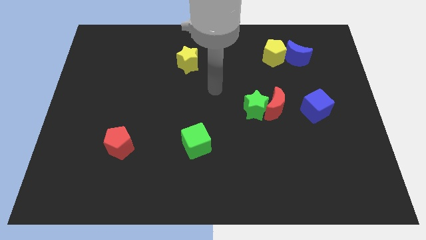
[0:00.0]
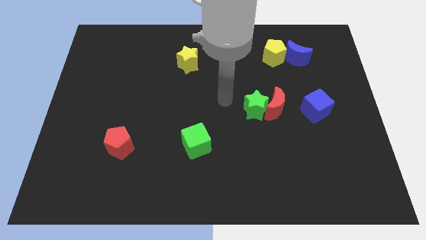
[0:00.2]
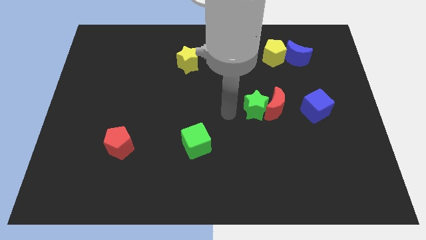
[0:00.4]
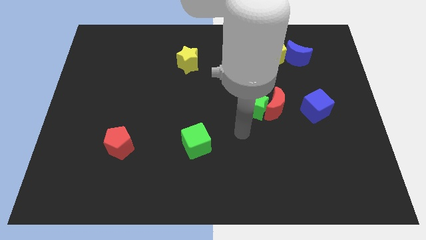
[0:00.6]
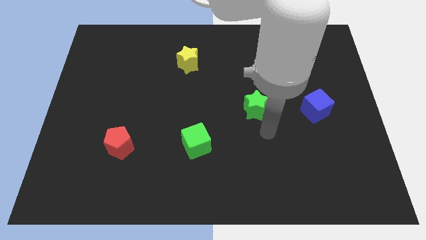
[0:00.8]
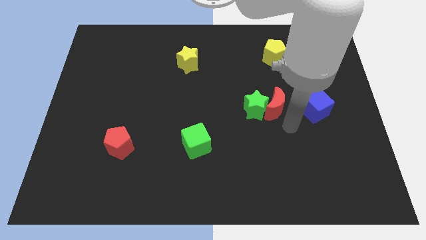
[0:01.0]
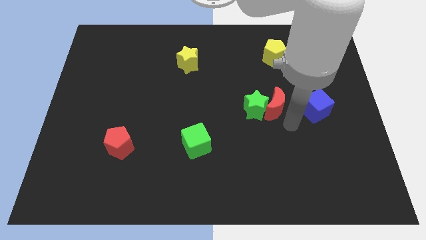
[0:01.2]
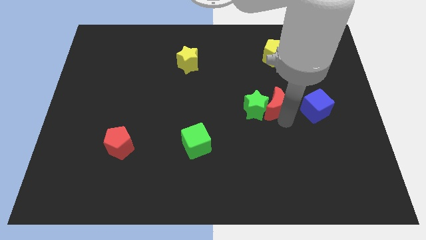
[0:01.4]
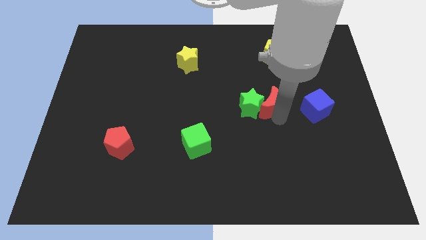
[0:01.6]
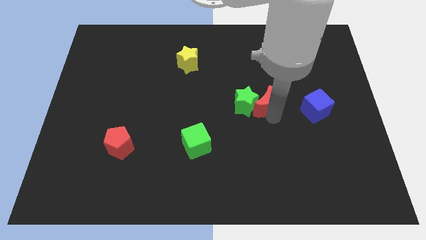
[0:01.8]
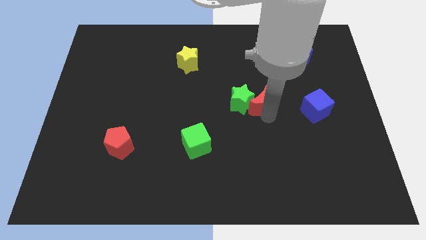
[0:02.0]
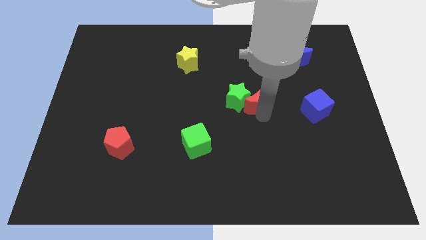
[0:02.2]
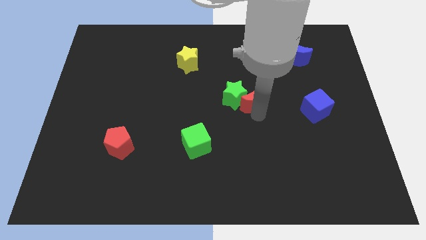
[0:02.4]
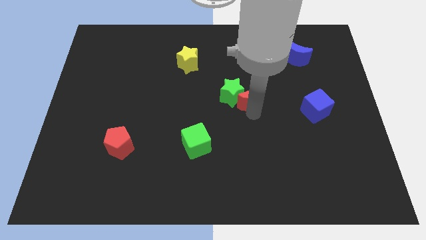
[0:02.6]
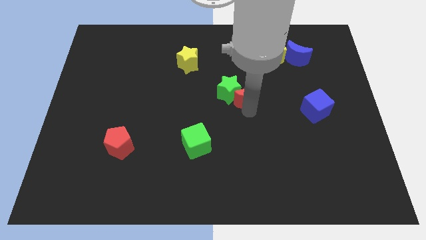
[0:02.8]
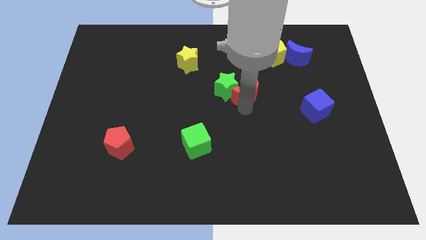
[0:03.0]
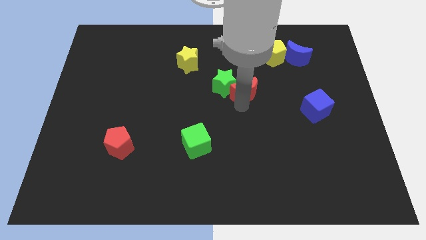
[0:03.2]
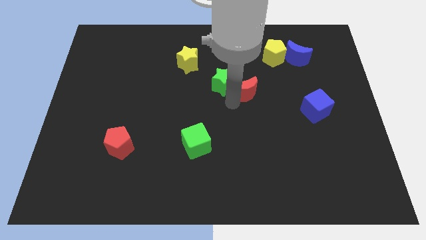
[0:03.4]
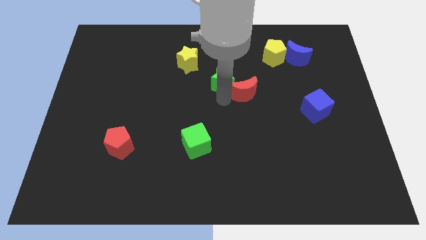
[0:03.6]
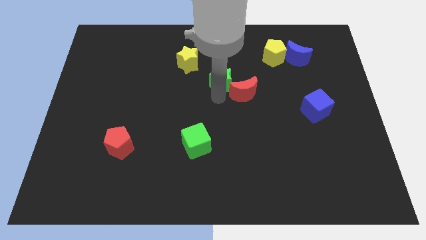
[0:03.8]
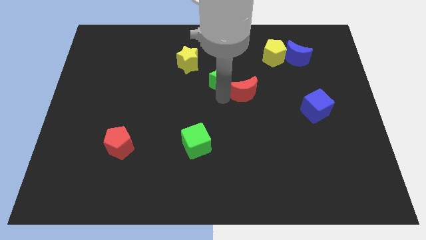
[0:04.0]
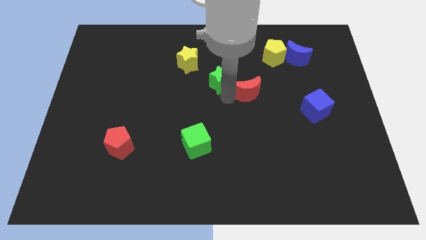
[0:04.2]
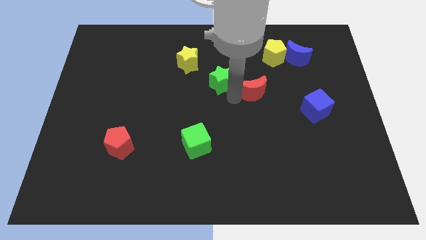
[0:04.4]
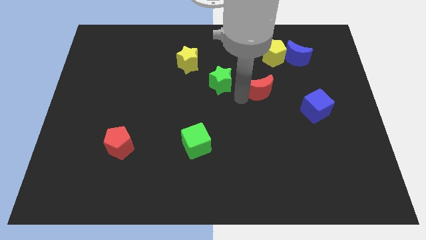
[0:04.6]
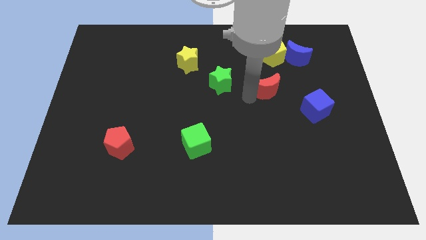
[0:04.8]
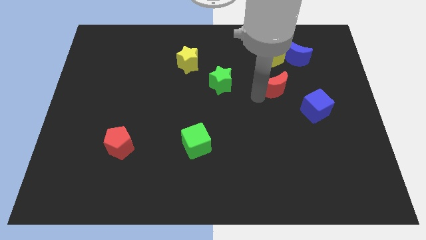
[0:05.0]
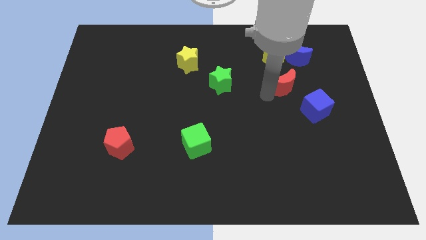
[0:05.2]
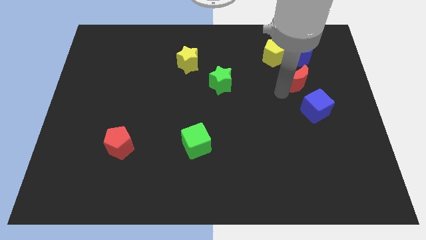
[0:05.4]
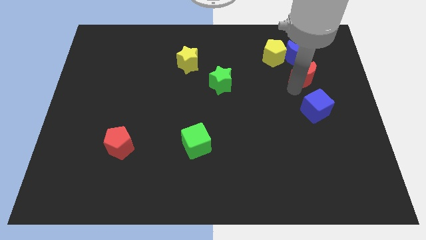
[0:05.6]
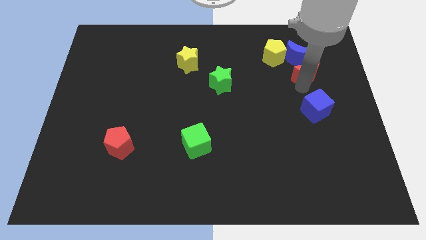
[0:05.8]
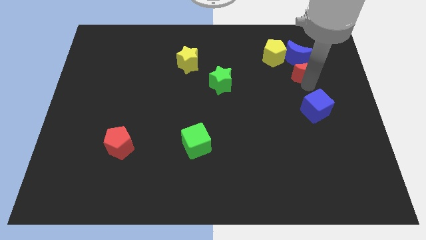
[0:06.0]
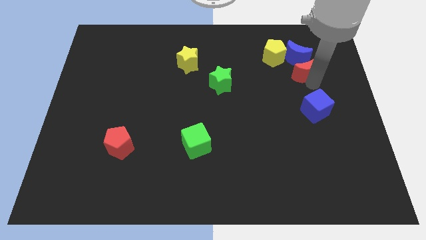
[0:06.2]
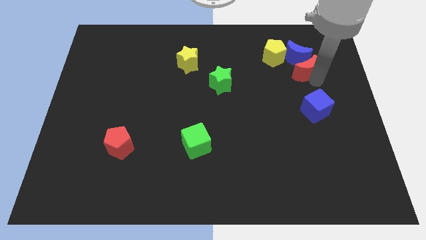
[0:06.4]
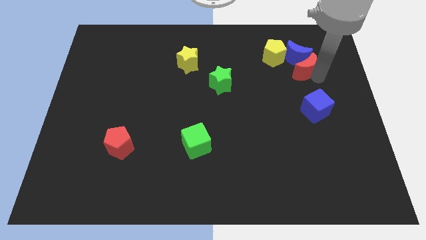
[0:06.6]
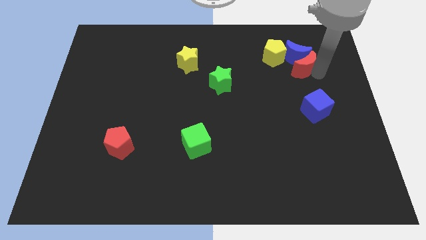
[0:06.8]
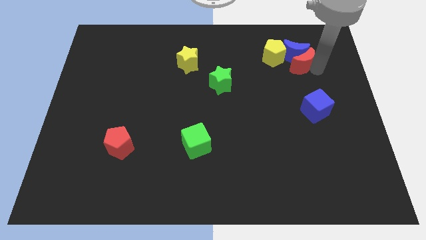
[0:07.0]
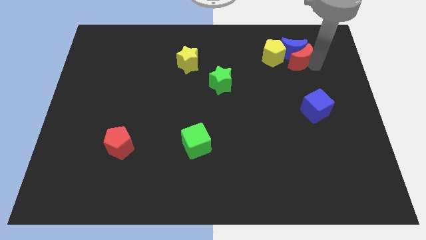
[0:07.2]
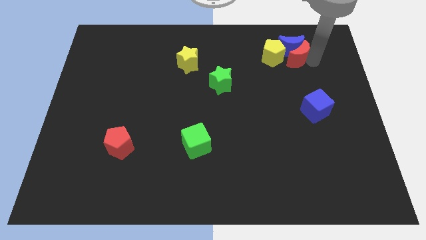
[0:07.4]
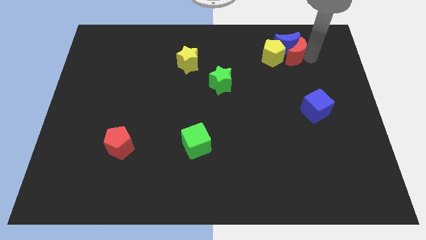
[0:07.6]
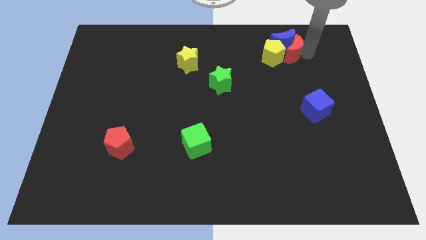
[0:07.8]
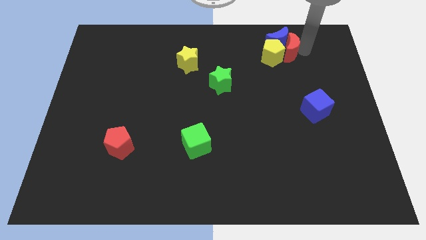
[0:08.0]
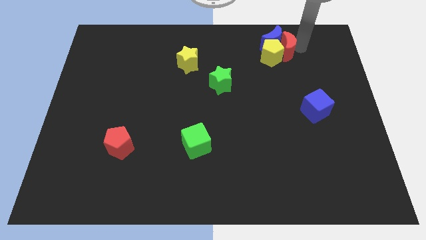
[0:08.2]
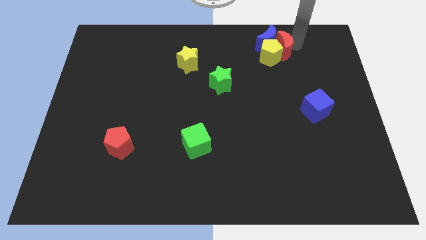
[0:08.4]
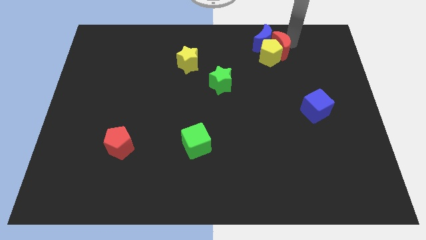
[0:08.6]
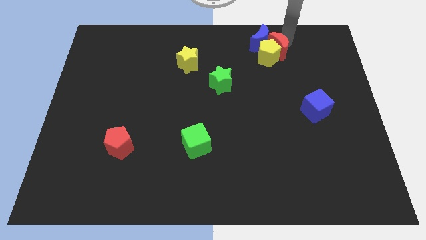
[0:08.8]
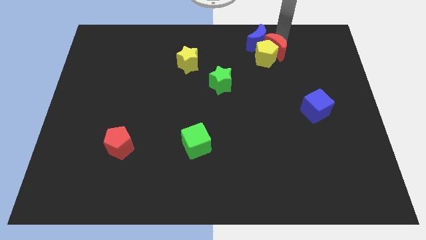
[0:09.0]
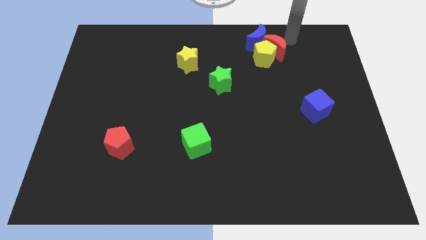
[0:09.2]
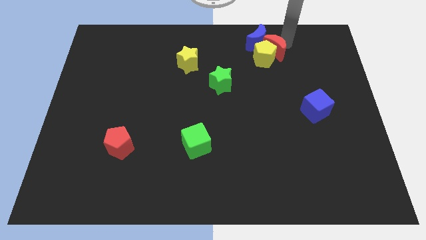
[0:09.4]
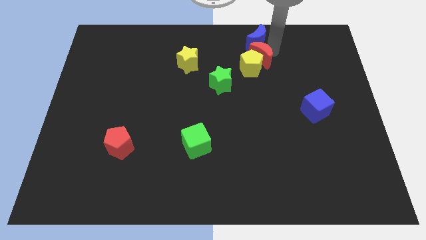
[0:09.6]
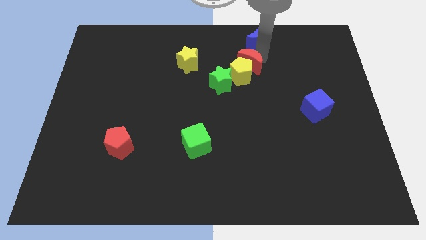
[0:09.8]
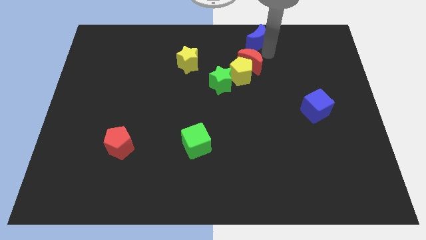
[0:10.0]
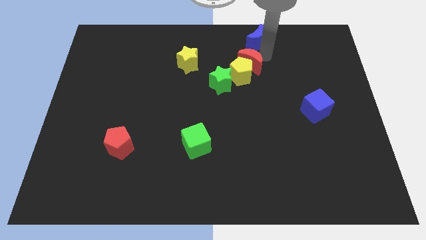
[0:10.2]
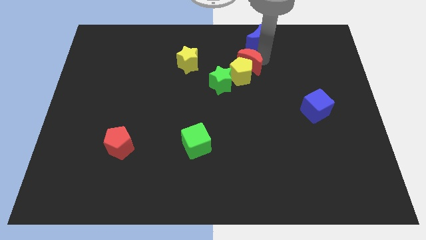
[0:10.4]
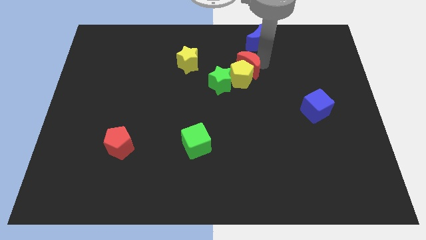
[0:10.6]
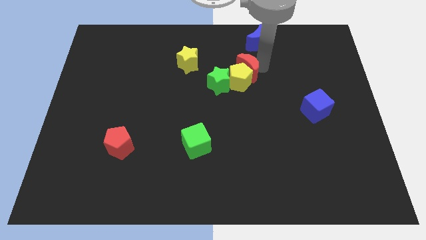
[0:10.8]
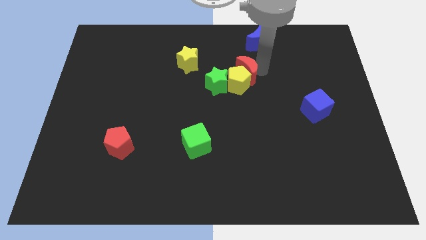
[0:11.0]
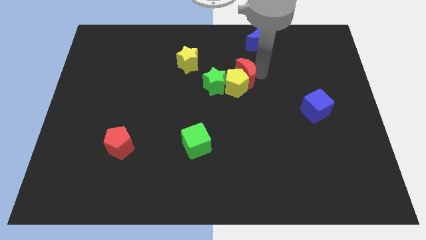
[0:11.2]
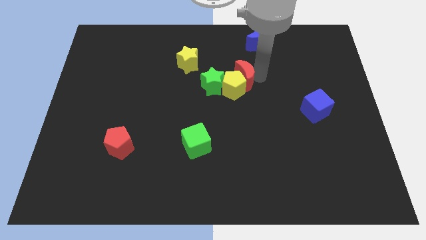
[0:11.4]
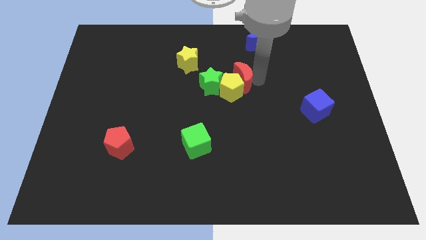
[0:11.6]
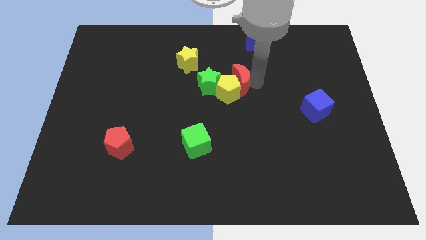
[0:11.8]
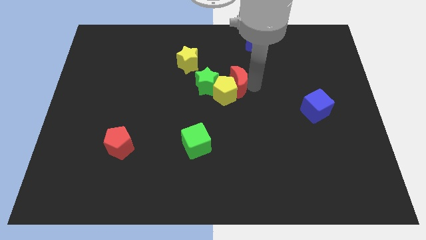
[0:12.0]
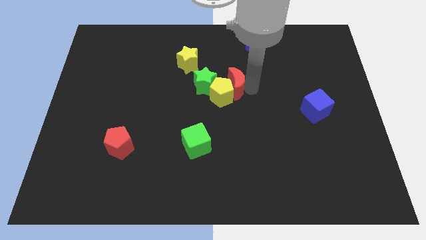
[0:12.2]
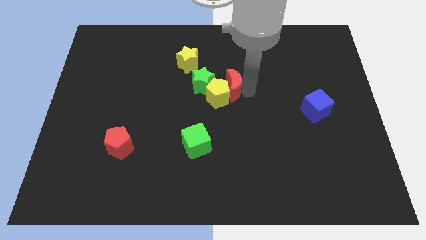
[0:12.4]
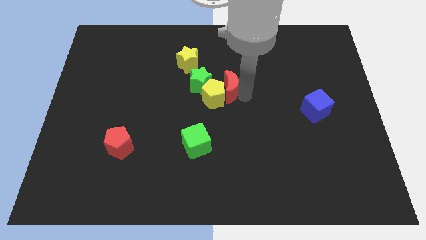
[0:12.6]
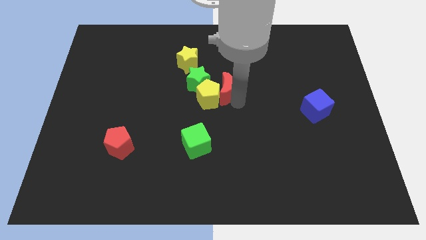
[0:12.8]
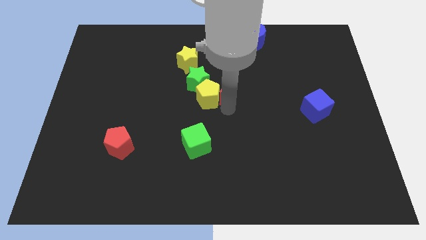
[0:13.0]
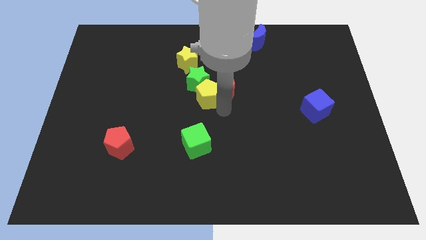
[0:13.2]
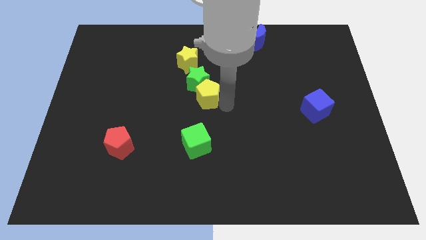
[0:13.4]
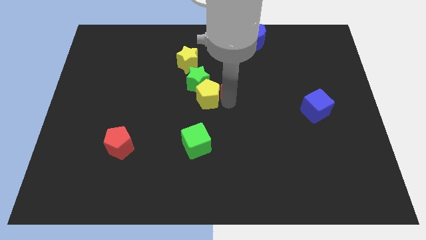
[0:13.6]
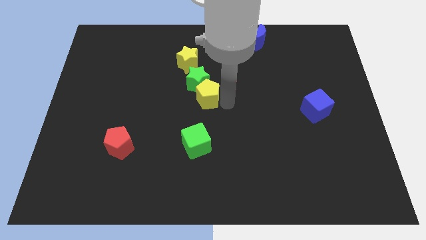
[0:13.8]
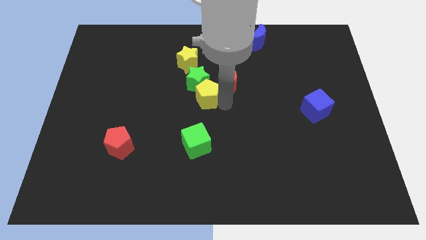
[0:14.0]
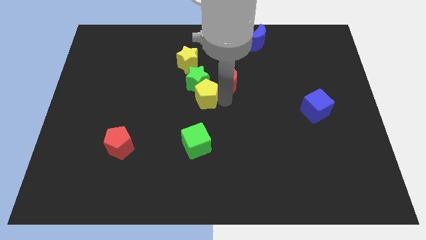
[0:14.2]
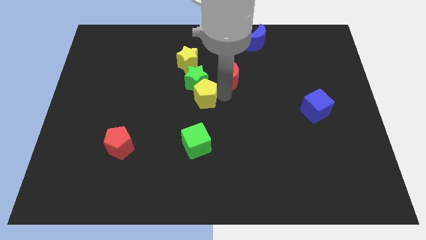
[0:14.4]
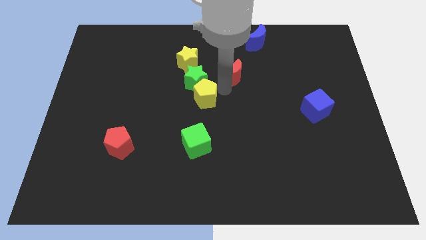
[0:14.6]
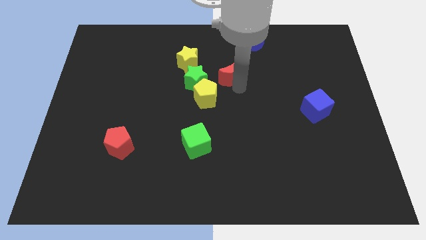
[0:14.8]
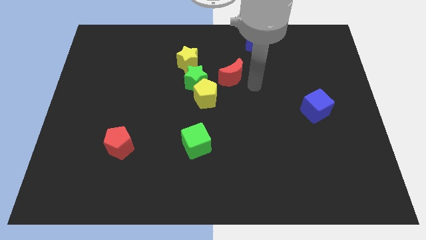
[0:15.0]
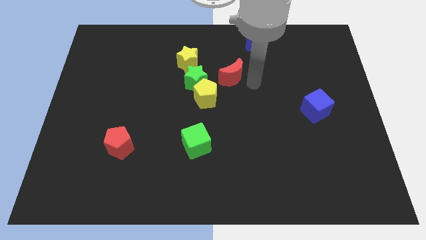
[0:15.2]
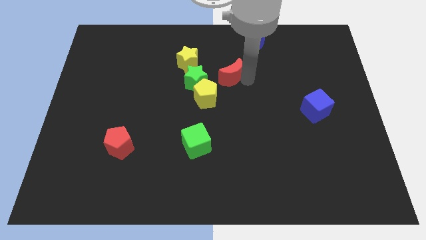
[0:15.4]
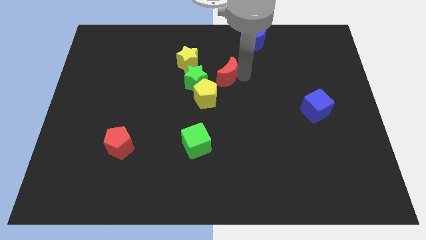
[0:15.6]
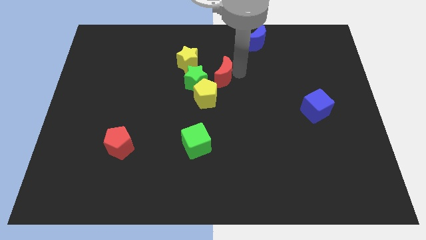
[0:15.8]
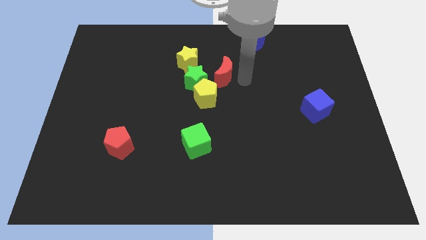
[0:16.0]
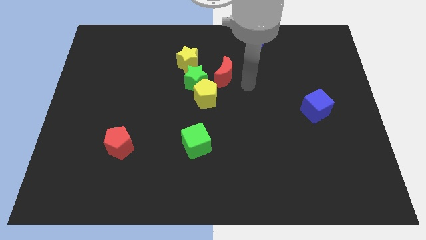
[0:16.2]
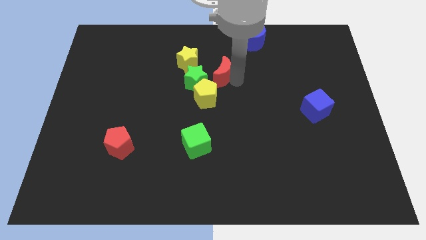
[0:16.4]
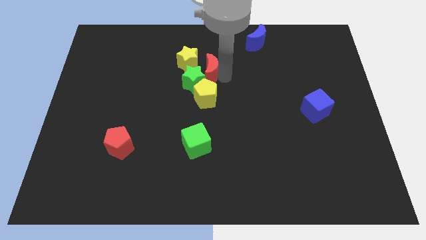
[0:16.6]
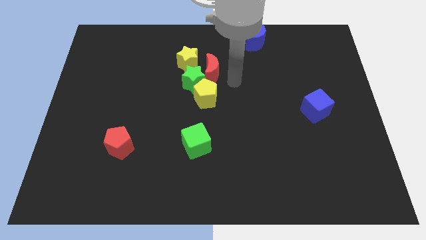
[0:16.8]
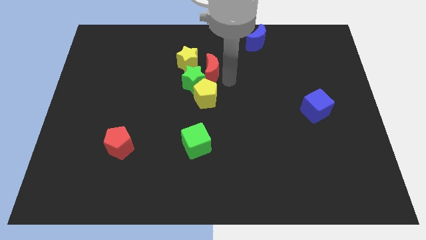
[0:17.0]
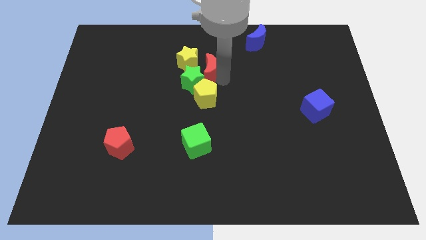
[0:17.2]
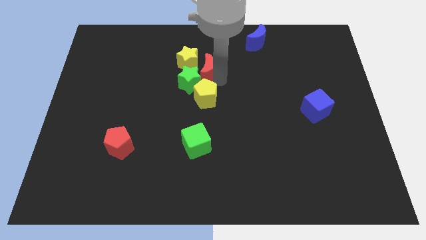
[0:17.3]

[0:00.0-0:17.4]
slide the red moon to the yellow star
